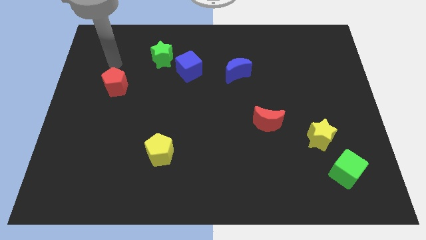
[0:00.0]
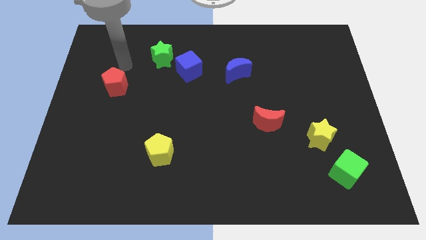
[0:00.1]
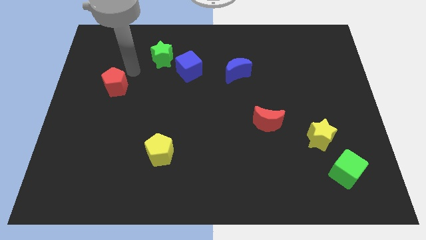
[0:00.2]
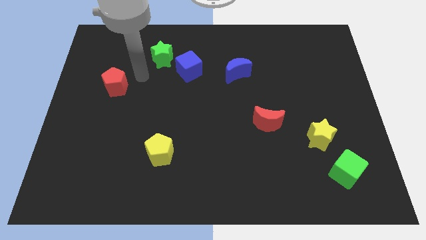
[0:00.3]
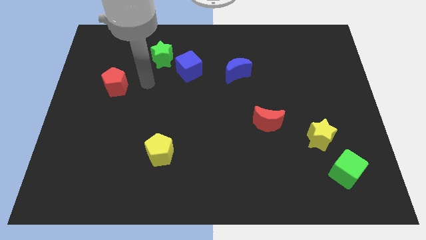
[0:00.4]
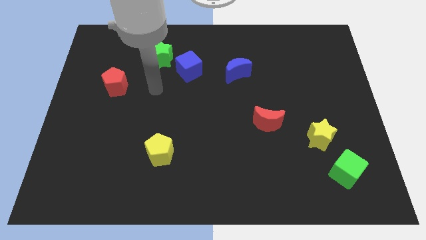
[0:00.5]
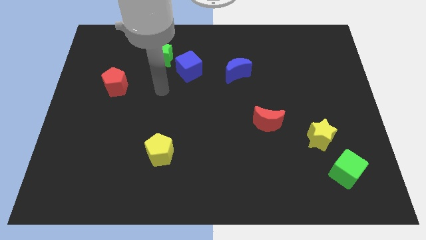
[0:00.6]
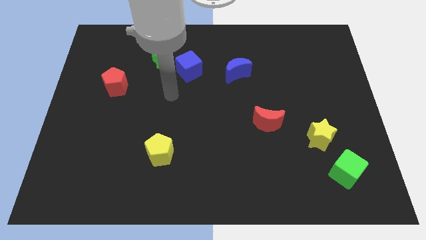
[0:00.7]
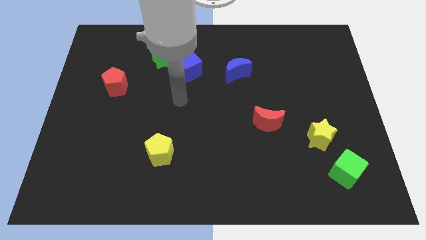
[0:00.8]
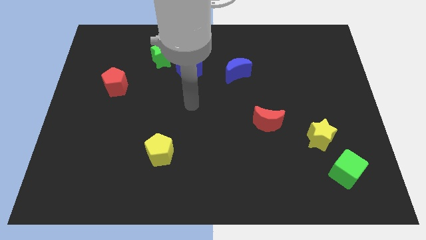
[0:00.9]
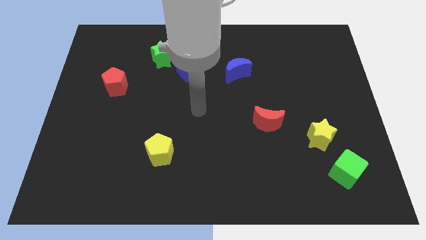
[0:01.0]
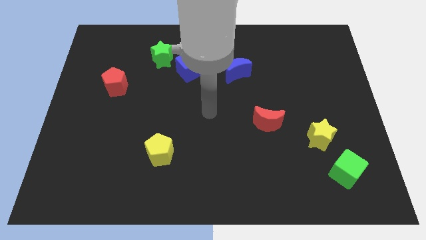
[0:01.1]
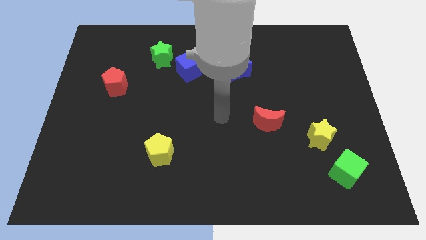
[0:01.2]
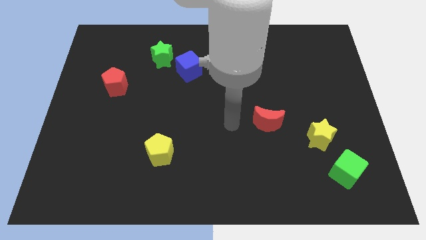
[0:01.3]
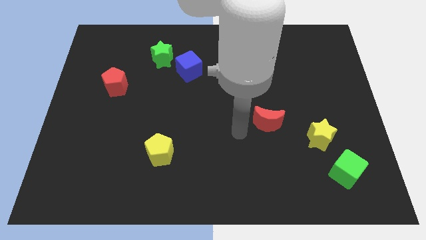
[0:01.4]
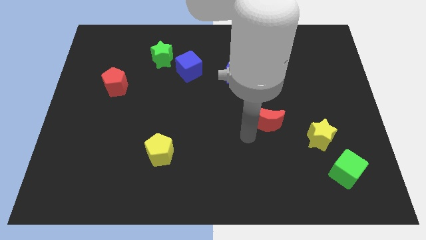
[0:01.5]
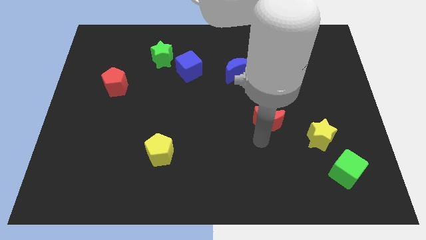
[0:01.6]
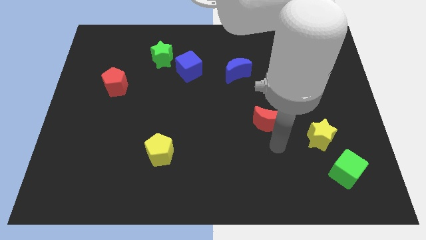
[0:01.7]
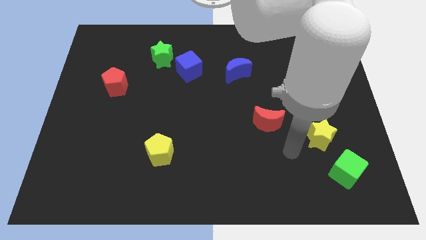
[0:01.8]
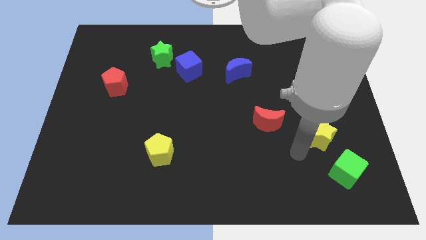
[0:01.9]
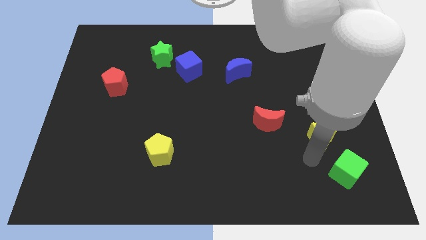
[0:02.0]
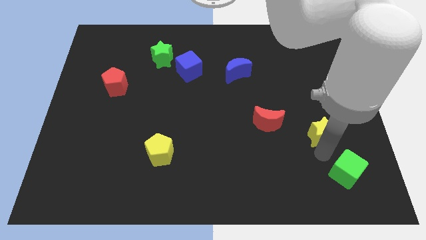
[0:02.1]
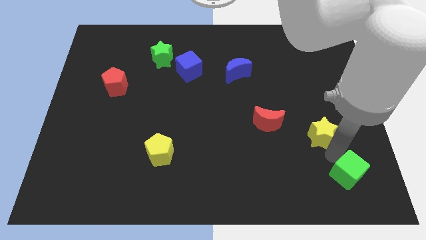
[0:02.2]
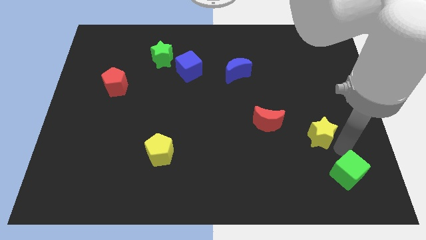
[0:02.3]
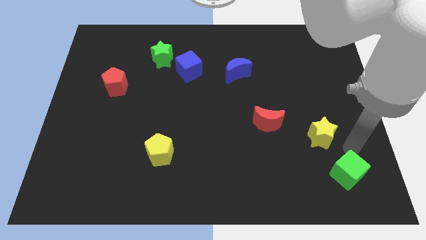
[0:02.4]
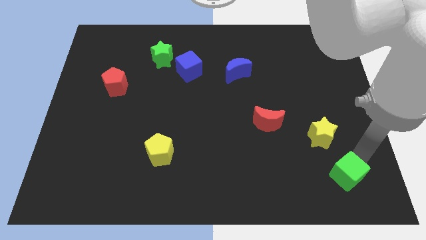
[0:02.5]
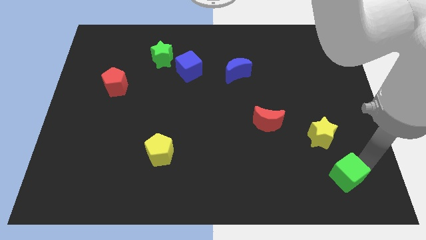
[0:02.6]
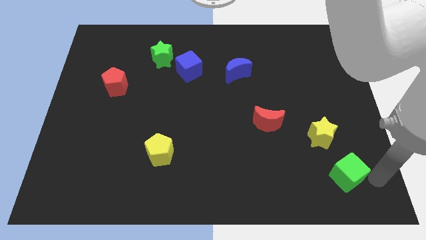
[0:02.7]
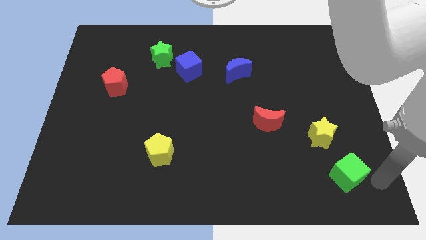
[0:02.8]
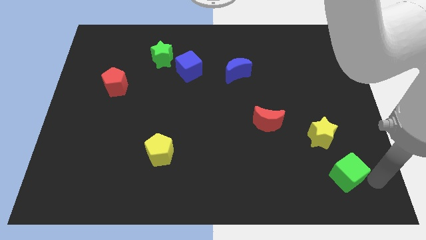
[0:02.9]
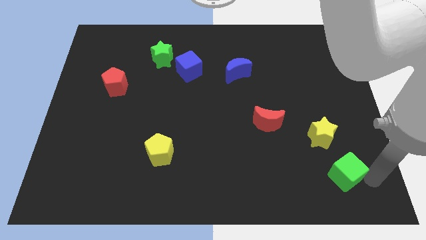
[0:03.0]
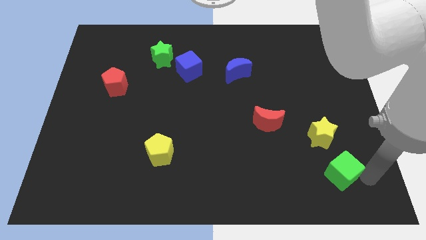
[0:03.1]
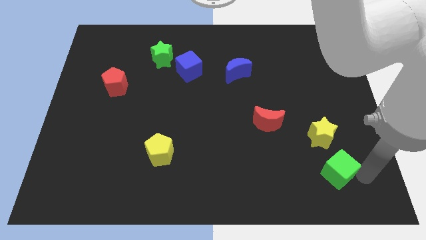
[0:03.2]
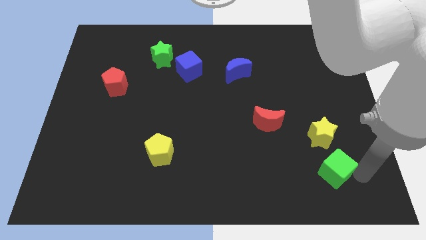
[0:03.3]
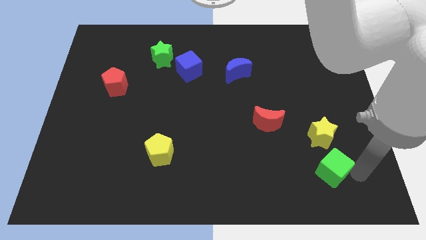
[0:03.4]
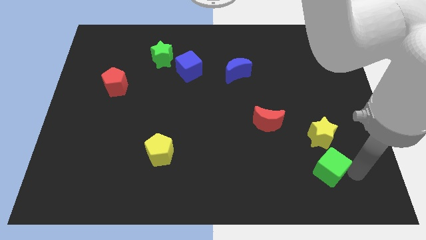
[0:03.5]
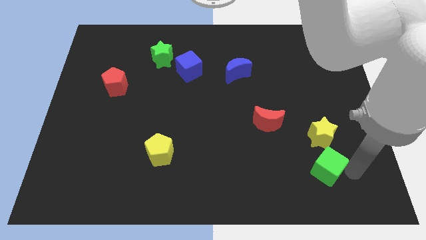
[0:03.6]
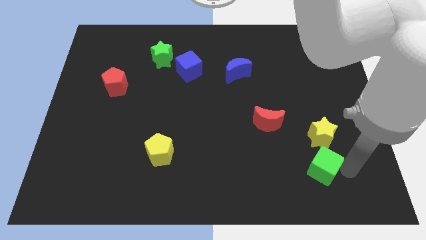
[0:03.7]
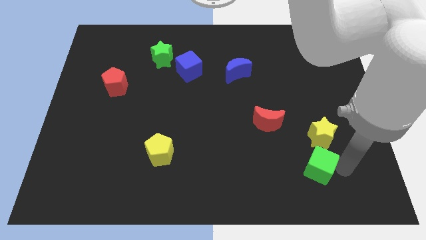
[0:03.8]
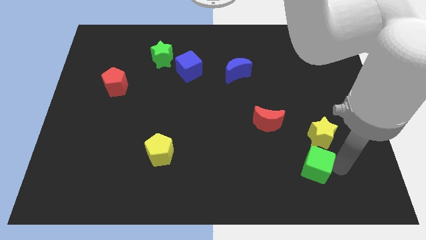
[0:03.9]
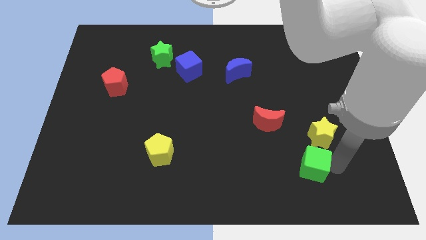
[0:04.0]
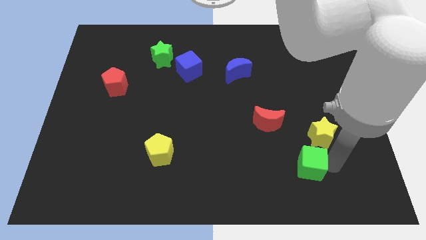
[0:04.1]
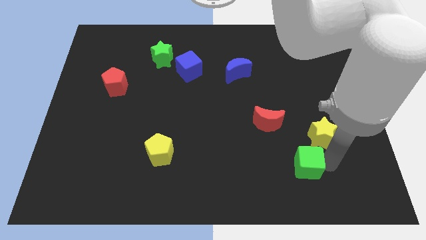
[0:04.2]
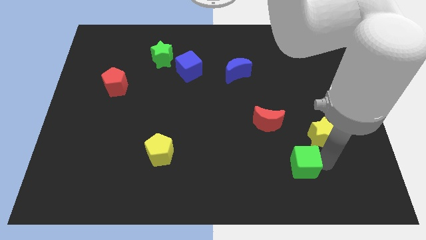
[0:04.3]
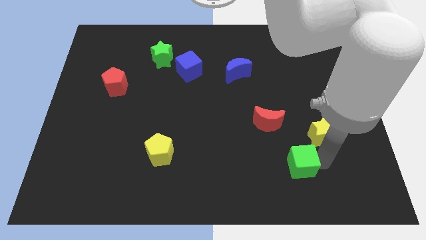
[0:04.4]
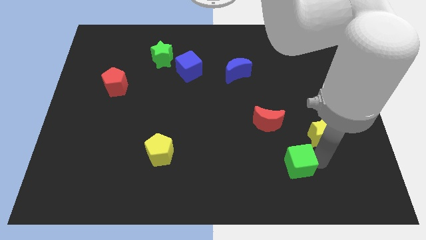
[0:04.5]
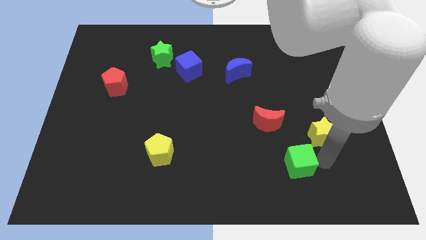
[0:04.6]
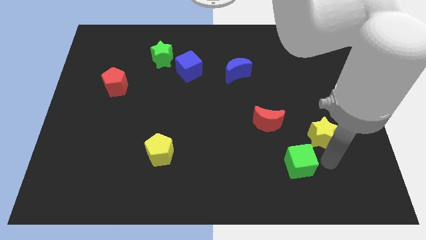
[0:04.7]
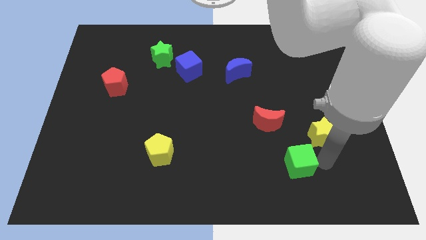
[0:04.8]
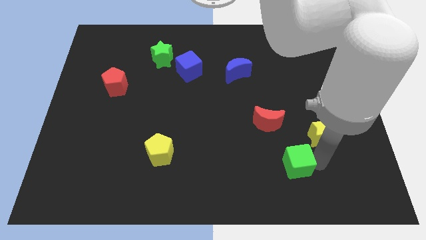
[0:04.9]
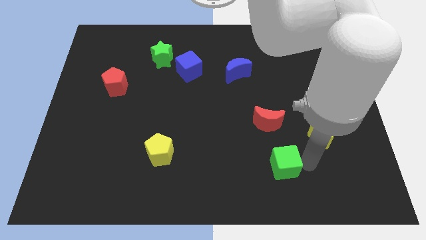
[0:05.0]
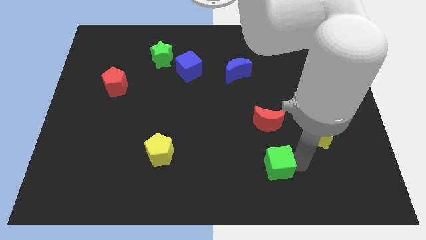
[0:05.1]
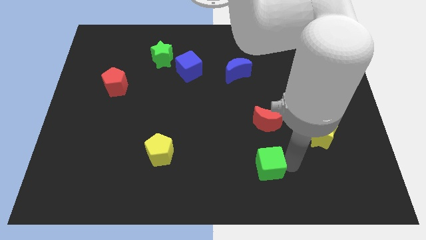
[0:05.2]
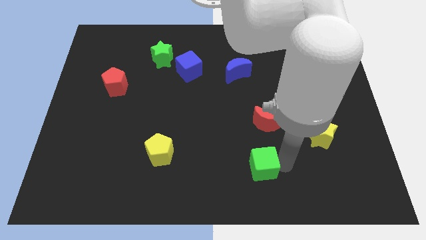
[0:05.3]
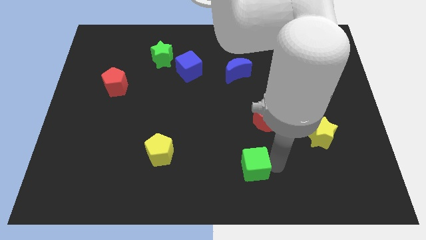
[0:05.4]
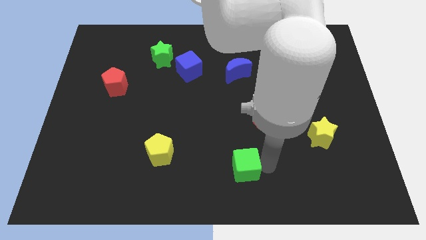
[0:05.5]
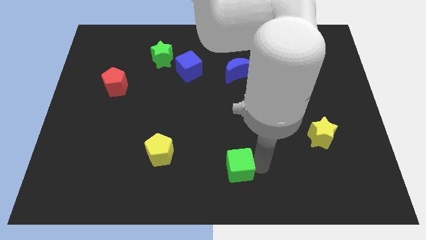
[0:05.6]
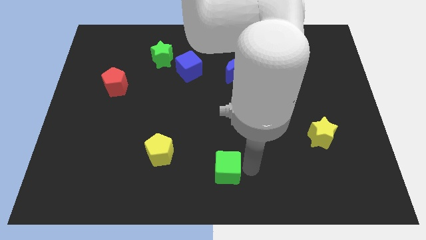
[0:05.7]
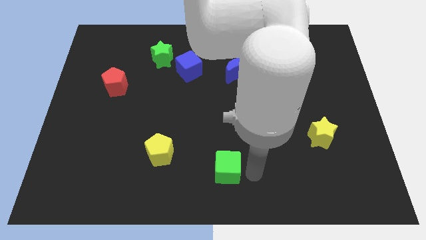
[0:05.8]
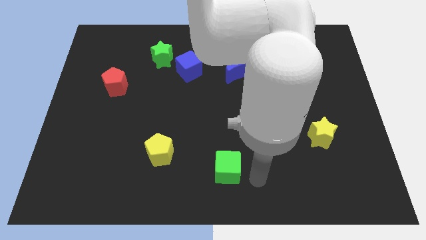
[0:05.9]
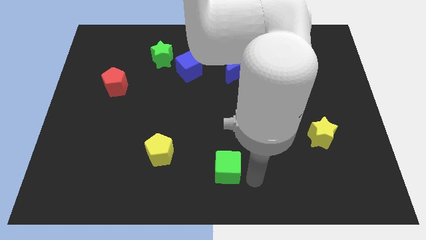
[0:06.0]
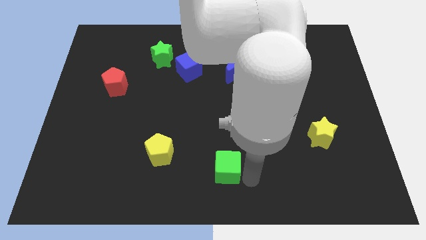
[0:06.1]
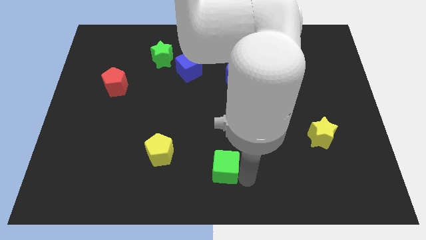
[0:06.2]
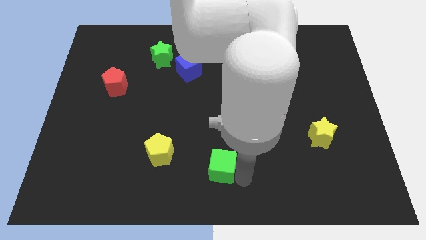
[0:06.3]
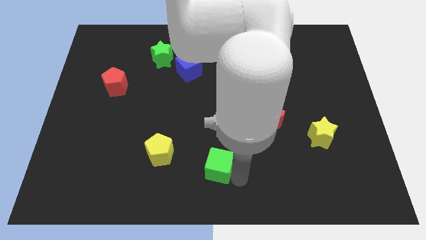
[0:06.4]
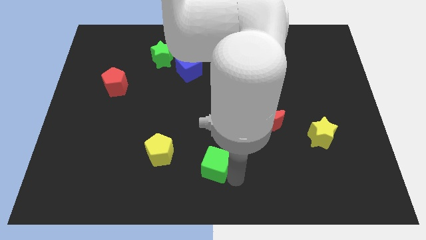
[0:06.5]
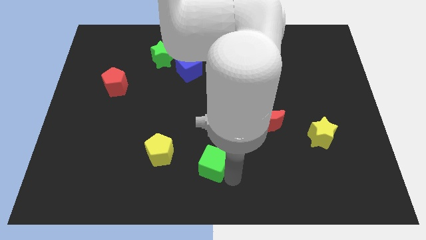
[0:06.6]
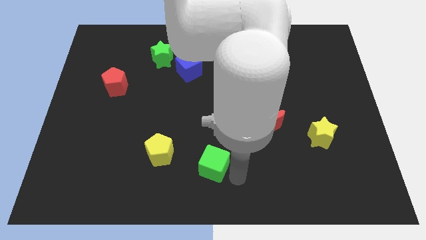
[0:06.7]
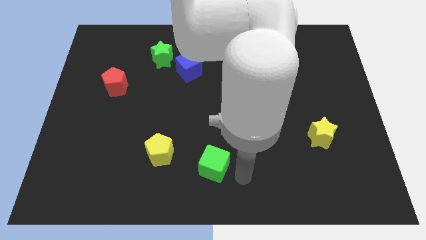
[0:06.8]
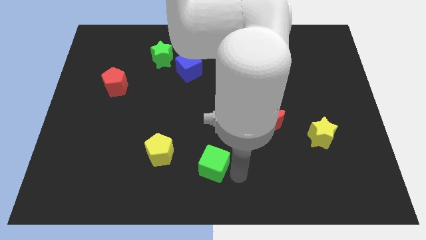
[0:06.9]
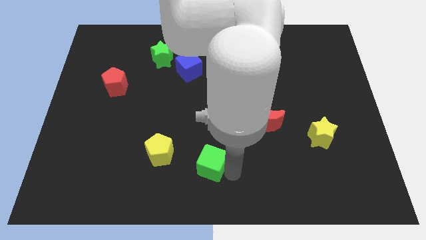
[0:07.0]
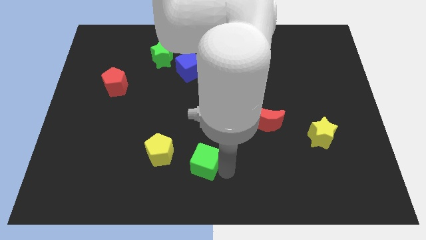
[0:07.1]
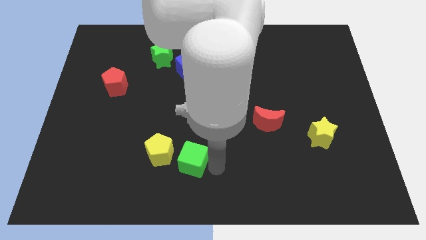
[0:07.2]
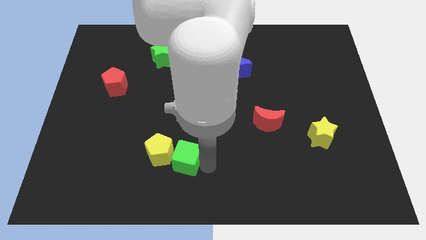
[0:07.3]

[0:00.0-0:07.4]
put the green cube to the yellow pentagon

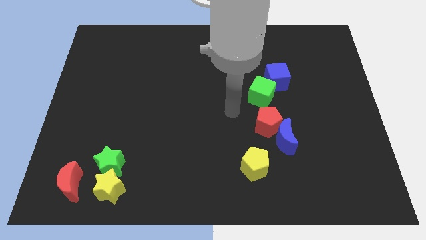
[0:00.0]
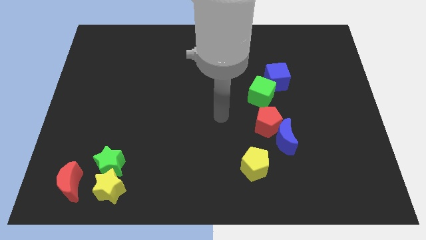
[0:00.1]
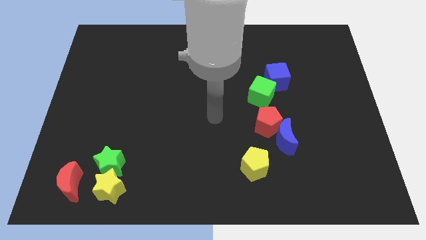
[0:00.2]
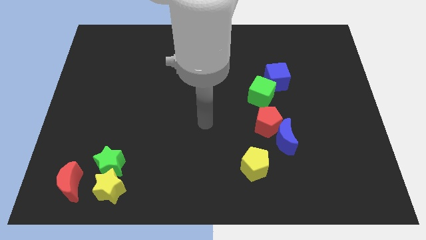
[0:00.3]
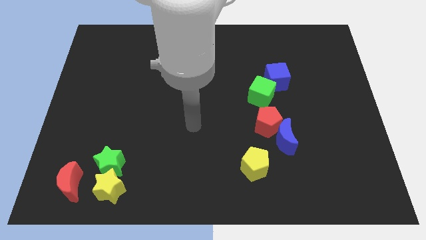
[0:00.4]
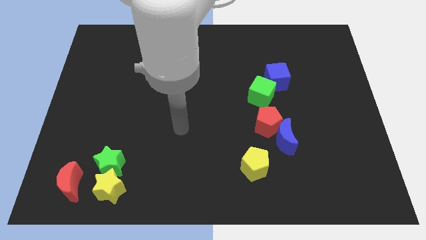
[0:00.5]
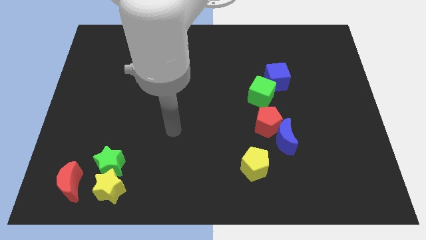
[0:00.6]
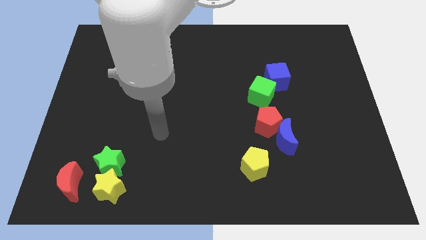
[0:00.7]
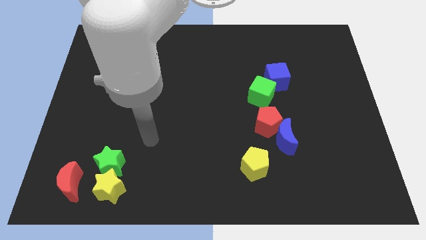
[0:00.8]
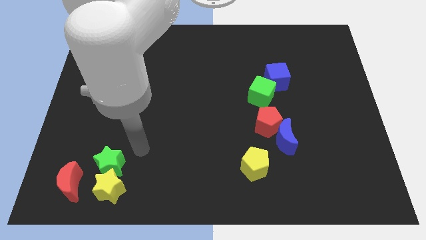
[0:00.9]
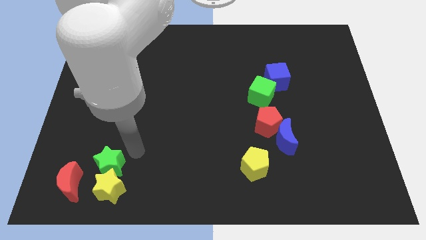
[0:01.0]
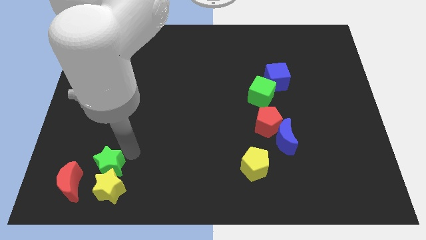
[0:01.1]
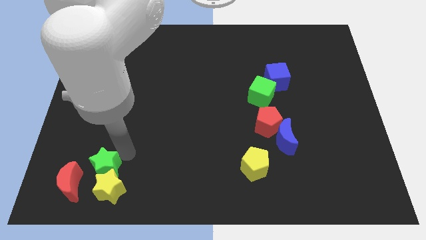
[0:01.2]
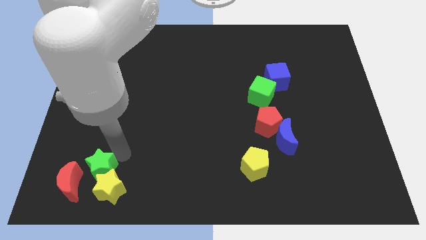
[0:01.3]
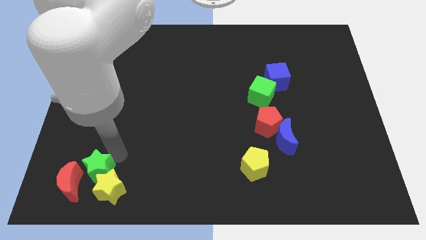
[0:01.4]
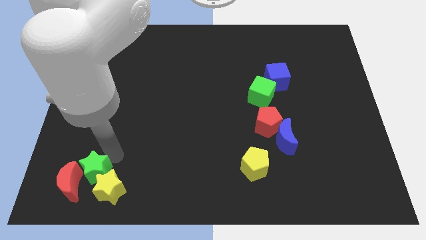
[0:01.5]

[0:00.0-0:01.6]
put the green star to the red moon
